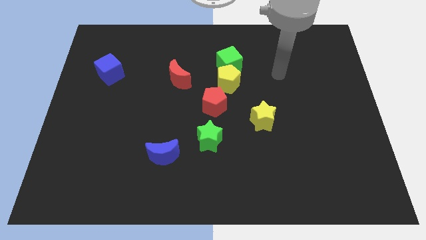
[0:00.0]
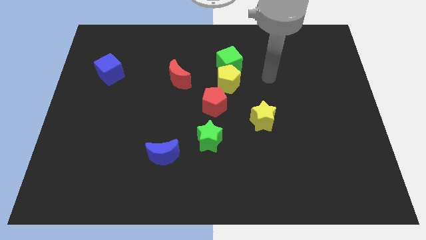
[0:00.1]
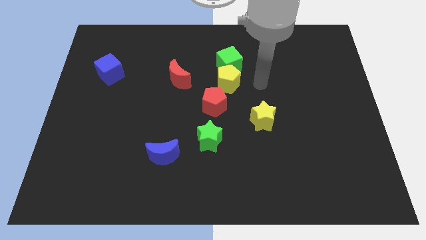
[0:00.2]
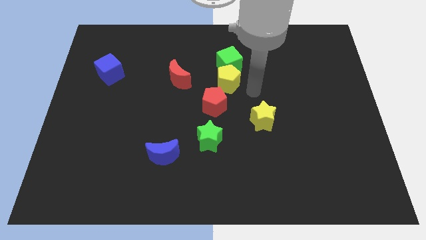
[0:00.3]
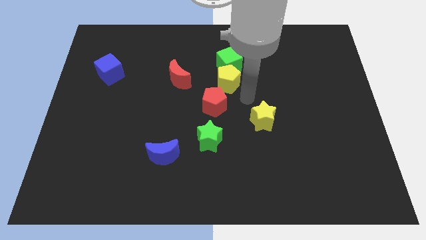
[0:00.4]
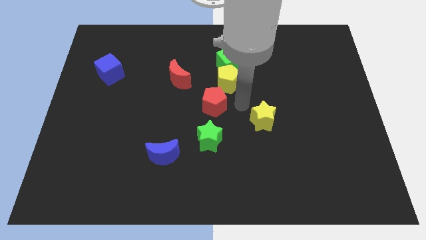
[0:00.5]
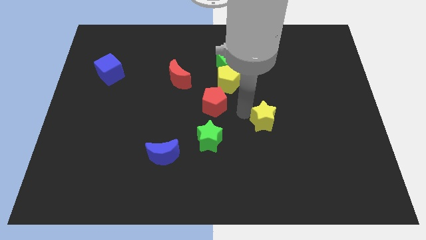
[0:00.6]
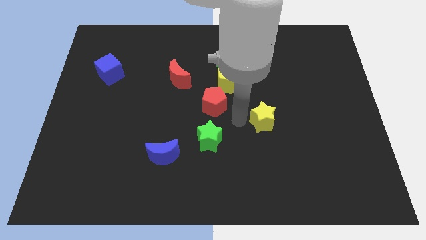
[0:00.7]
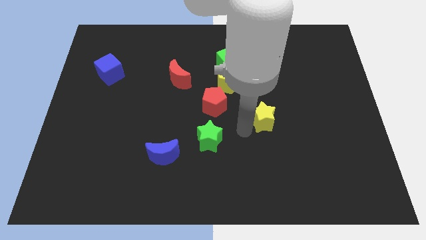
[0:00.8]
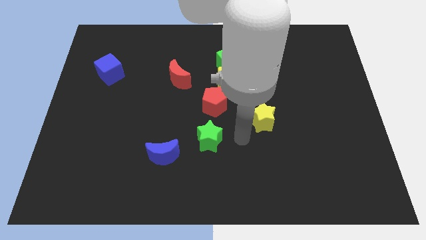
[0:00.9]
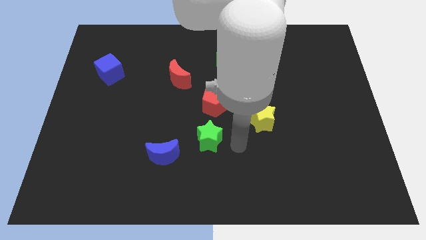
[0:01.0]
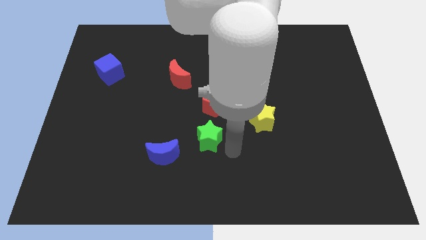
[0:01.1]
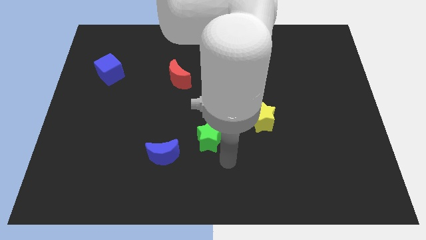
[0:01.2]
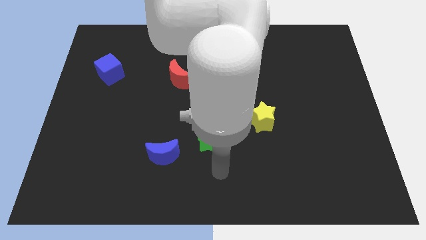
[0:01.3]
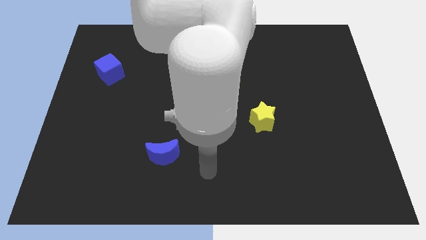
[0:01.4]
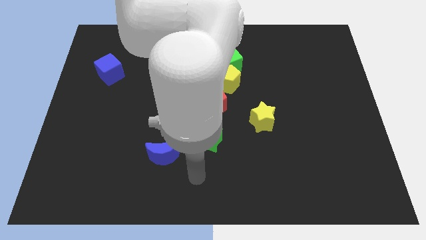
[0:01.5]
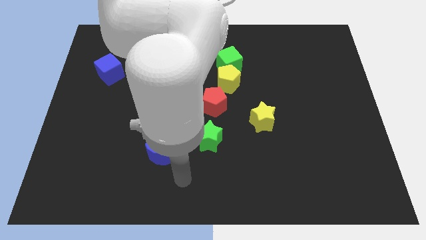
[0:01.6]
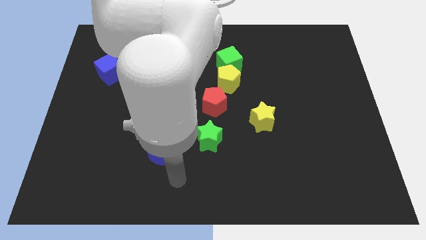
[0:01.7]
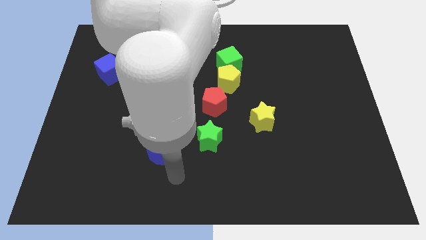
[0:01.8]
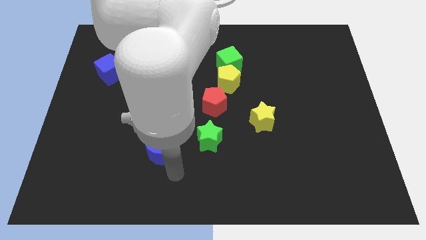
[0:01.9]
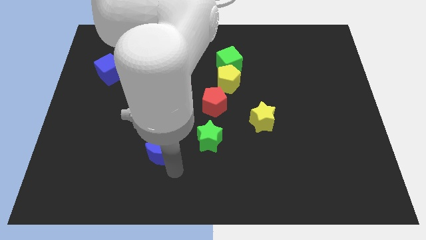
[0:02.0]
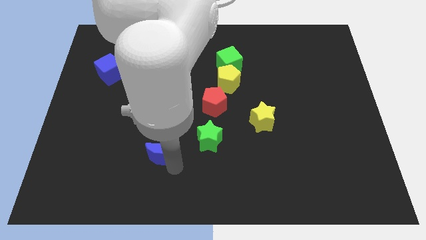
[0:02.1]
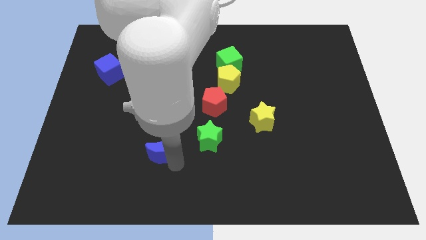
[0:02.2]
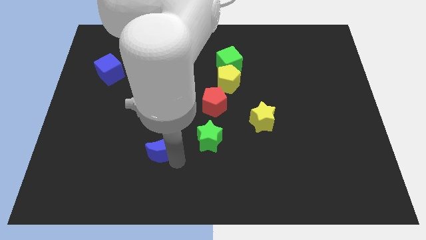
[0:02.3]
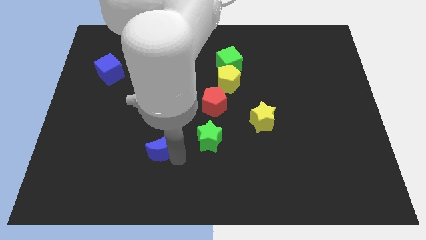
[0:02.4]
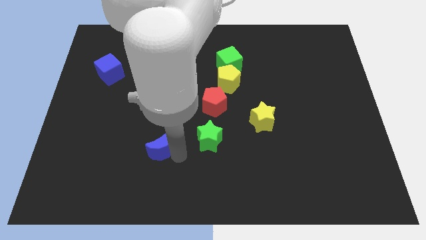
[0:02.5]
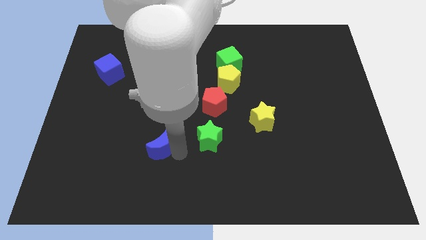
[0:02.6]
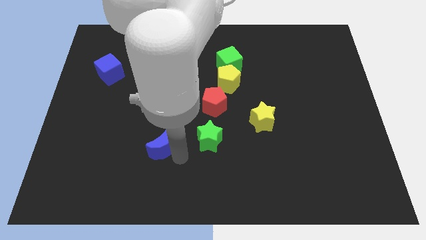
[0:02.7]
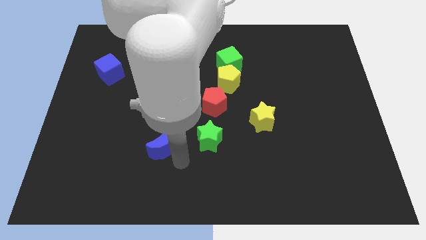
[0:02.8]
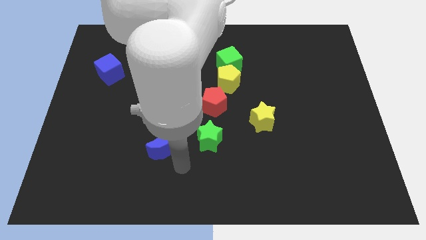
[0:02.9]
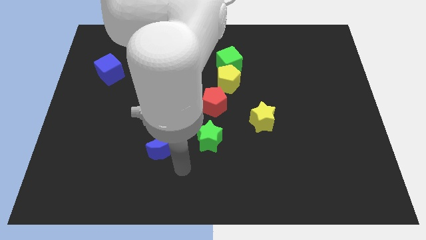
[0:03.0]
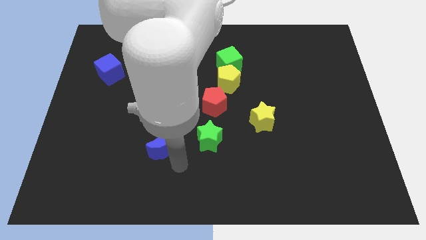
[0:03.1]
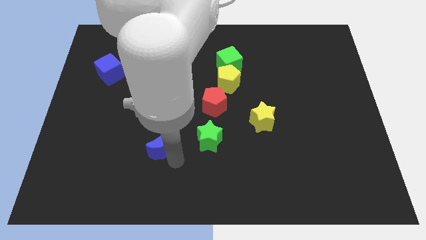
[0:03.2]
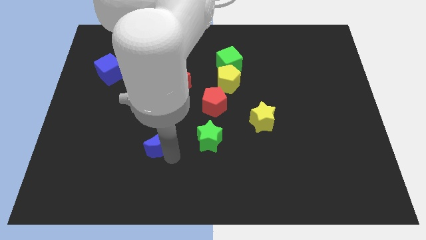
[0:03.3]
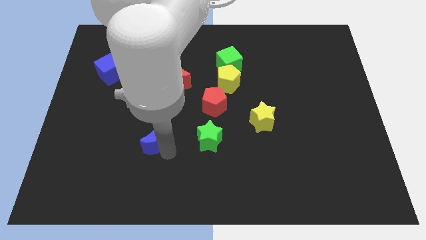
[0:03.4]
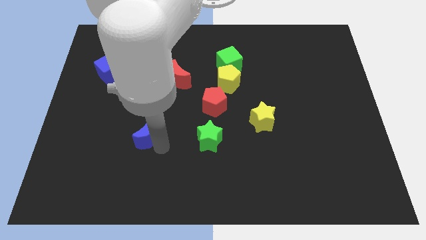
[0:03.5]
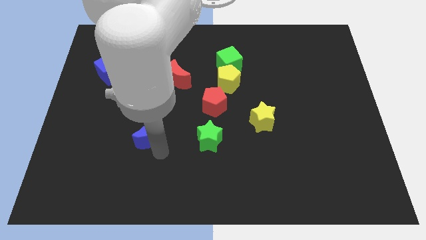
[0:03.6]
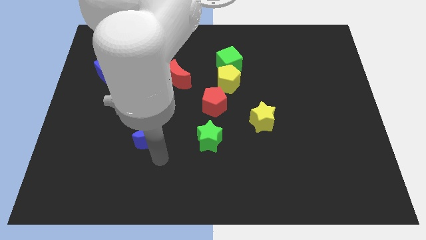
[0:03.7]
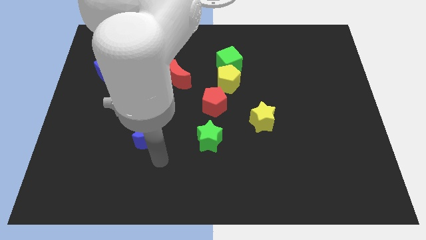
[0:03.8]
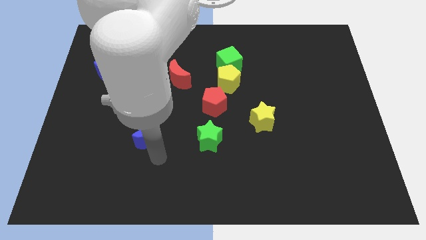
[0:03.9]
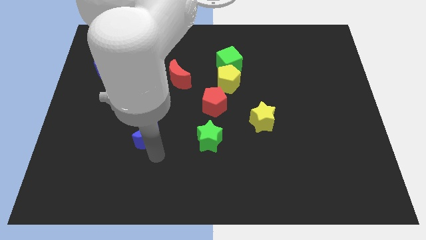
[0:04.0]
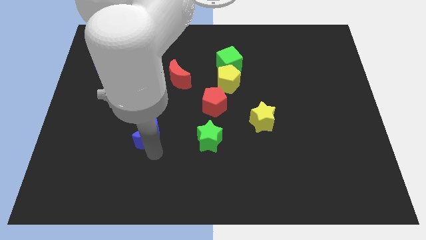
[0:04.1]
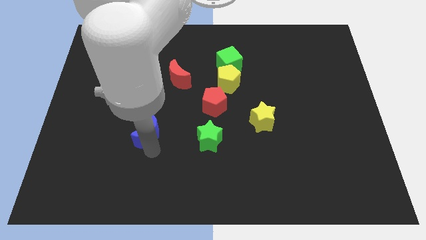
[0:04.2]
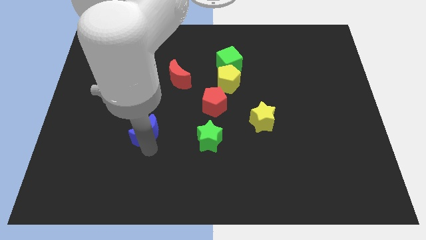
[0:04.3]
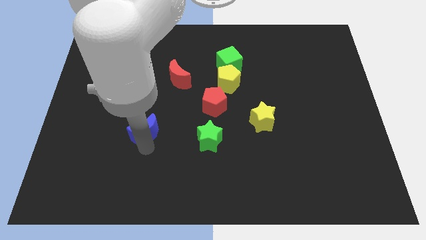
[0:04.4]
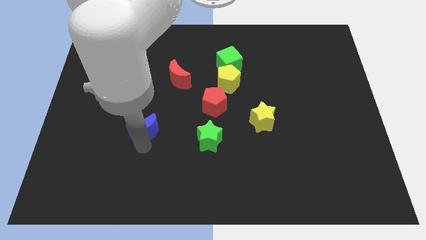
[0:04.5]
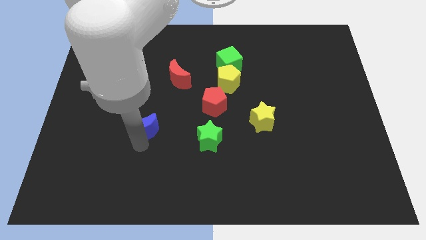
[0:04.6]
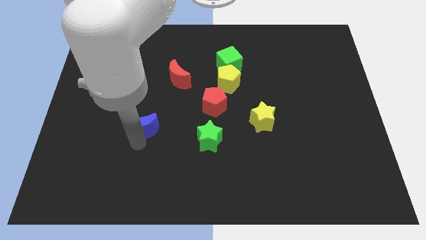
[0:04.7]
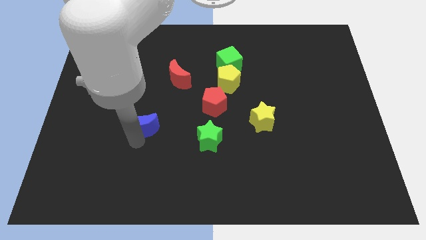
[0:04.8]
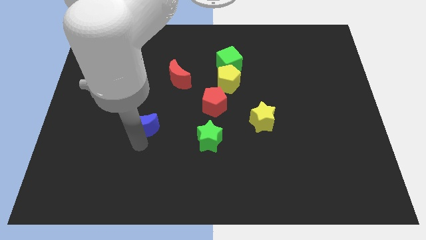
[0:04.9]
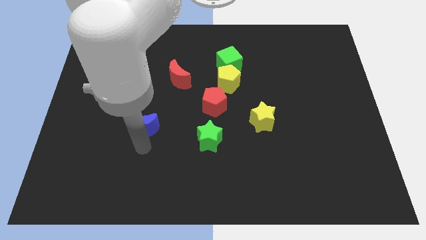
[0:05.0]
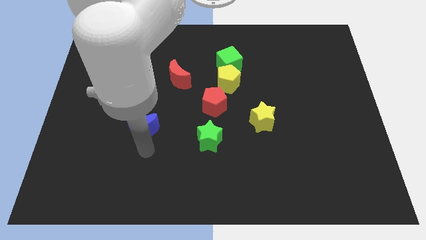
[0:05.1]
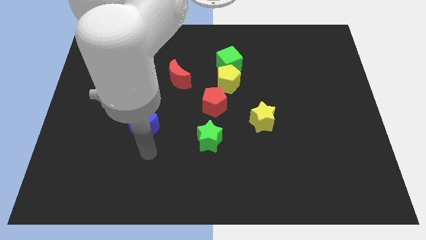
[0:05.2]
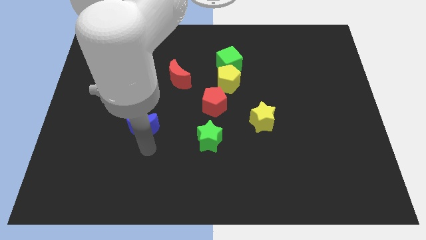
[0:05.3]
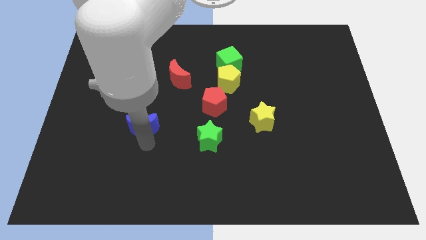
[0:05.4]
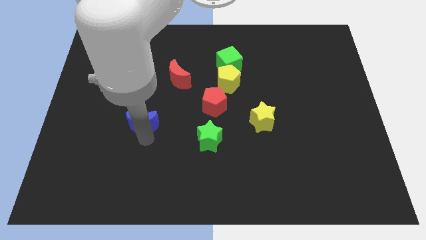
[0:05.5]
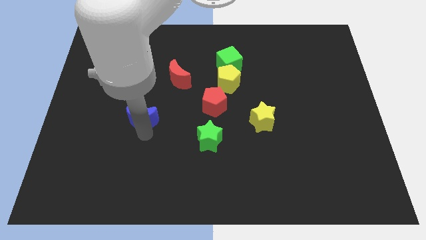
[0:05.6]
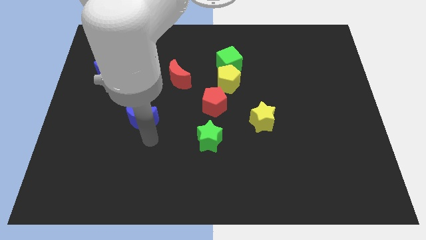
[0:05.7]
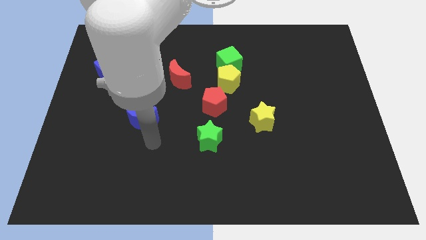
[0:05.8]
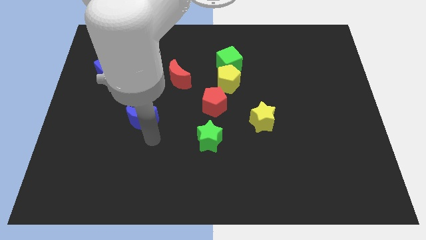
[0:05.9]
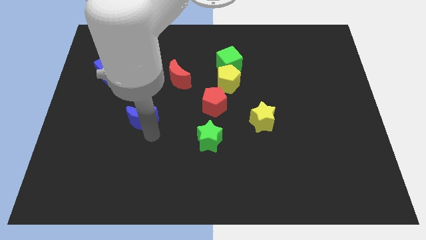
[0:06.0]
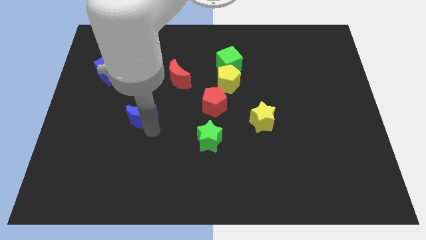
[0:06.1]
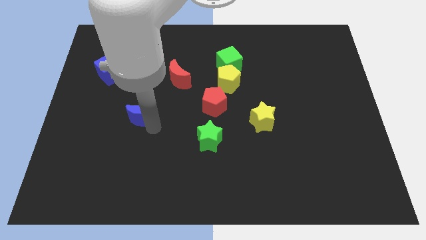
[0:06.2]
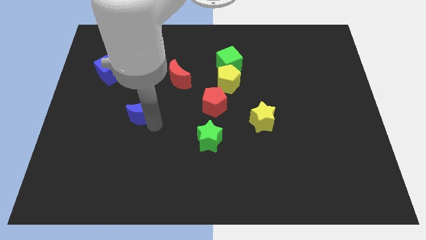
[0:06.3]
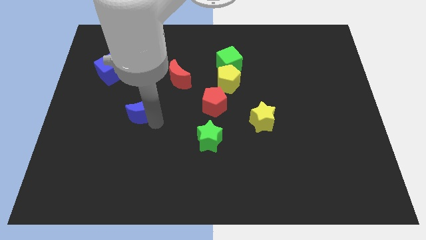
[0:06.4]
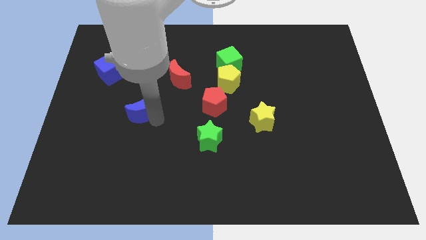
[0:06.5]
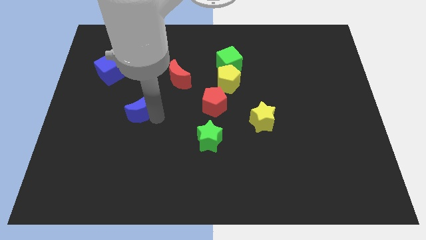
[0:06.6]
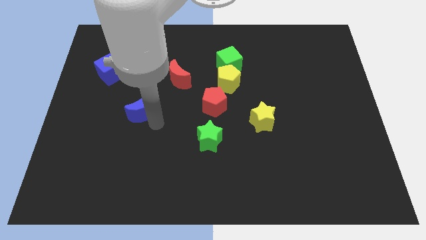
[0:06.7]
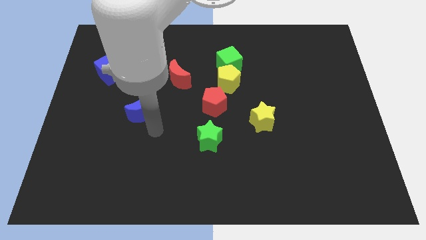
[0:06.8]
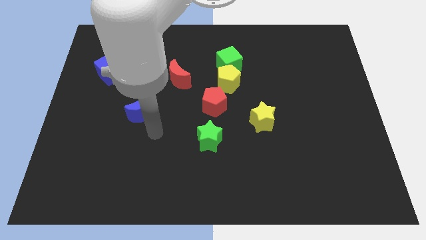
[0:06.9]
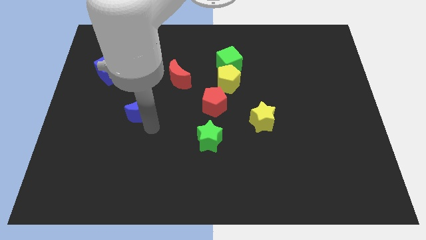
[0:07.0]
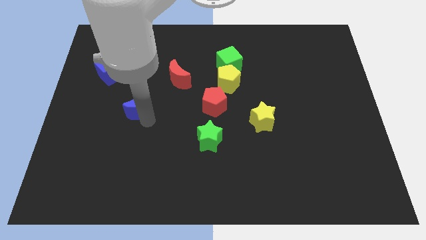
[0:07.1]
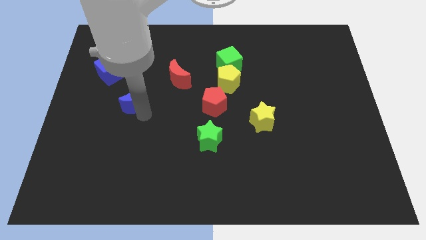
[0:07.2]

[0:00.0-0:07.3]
slide the blue moon to the bottom right side of the blue cube
